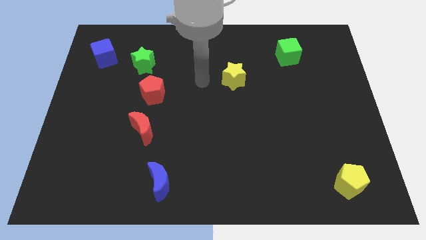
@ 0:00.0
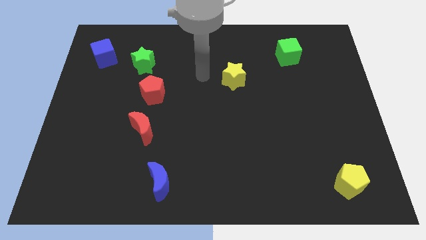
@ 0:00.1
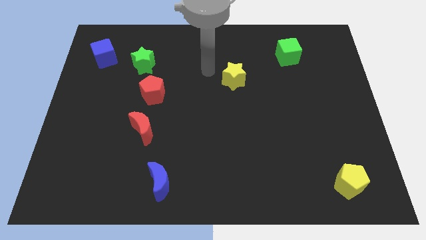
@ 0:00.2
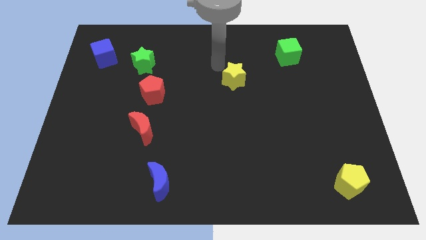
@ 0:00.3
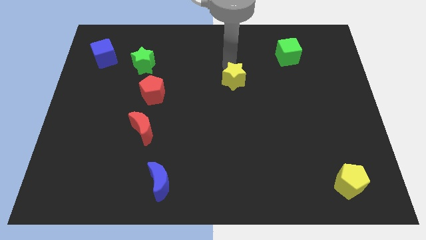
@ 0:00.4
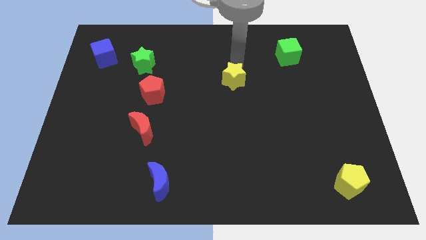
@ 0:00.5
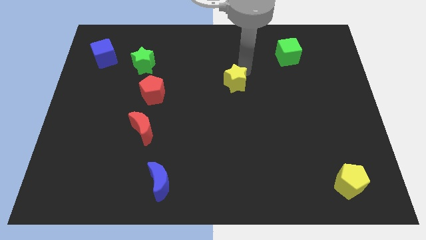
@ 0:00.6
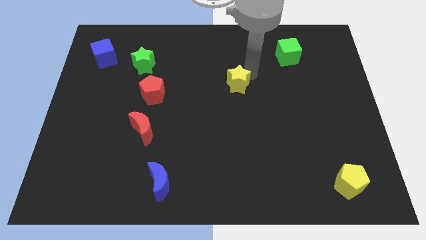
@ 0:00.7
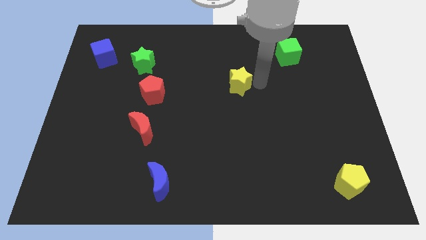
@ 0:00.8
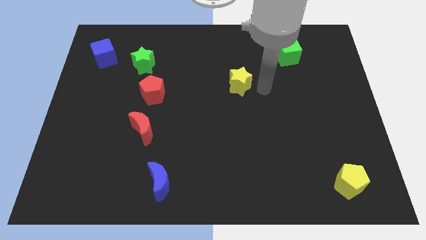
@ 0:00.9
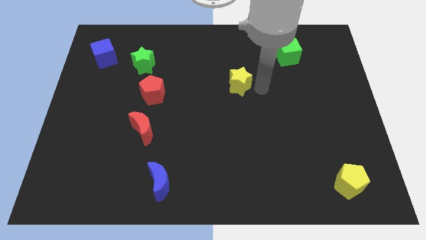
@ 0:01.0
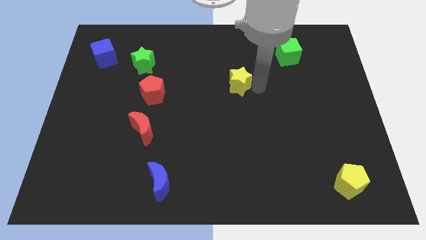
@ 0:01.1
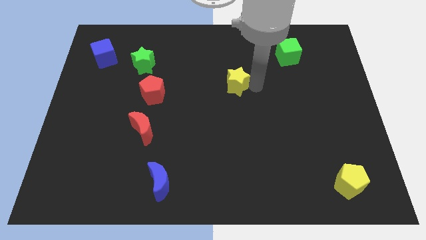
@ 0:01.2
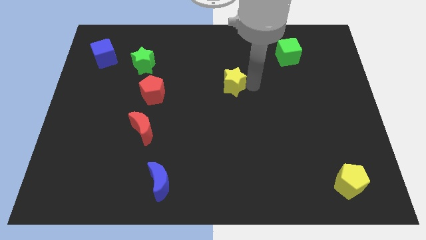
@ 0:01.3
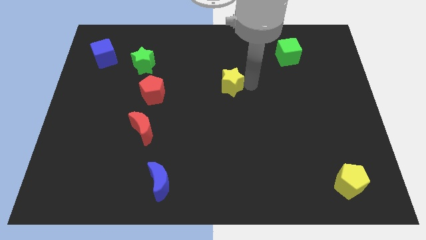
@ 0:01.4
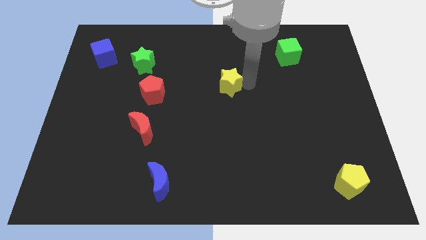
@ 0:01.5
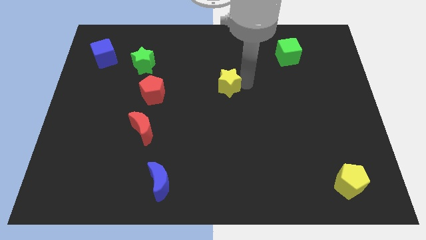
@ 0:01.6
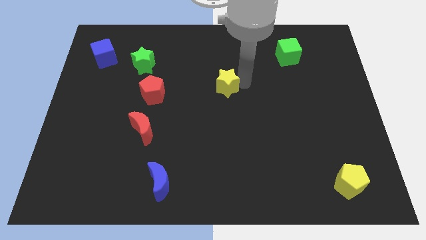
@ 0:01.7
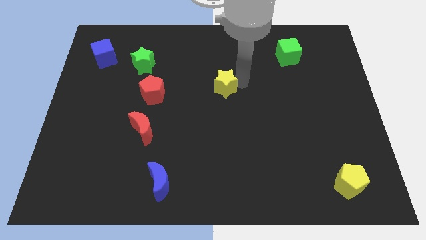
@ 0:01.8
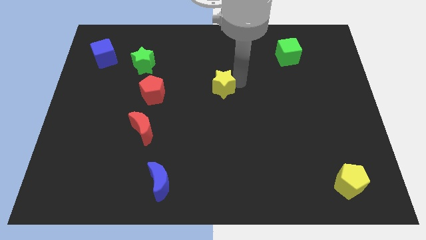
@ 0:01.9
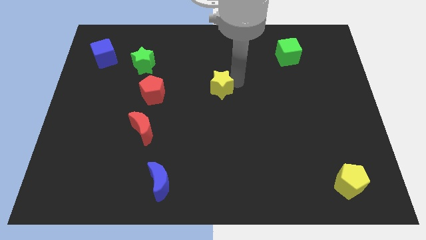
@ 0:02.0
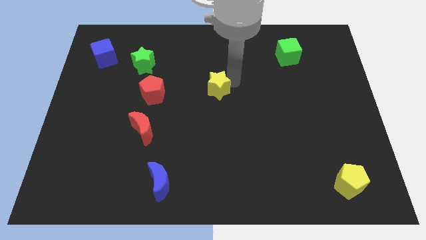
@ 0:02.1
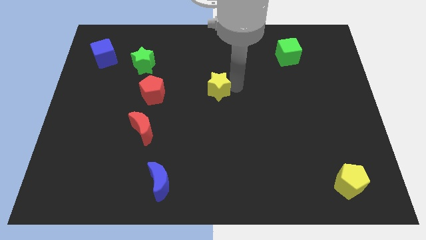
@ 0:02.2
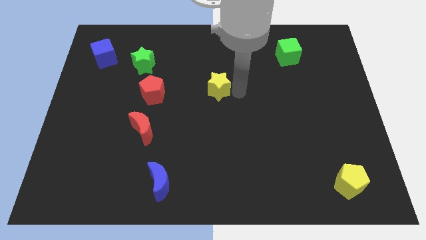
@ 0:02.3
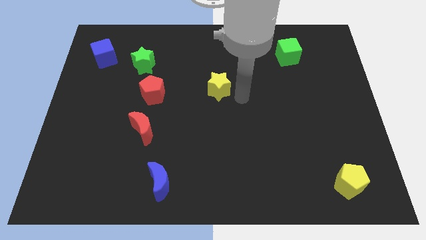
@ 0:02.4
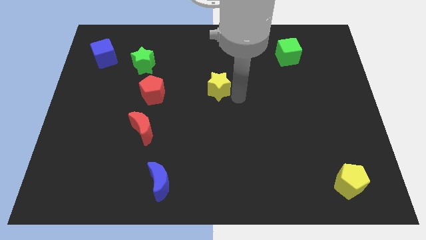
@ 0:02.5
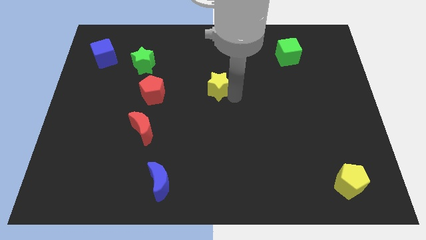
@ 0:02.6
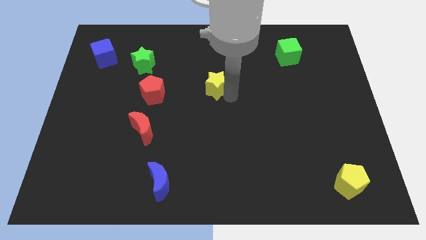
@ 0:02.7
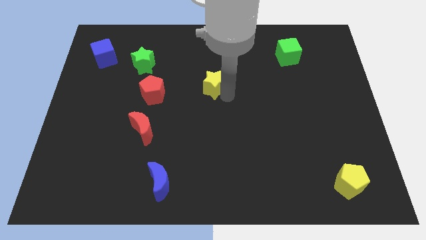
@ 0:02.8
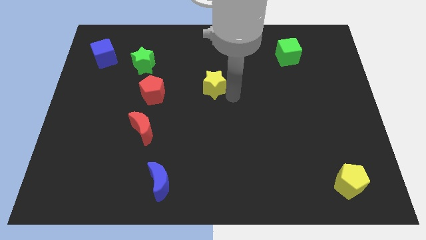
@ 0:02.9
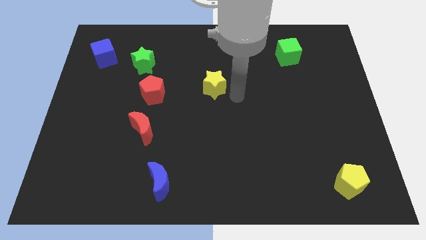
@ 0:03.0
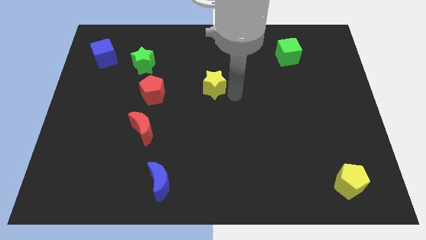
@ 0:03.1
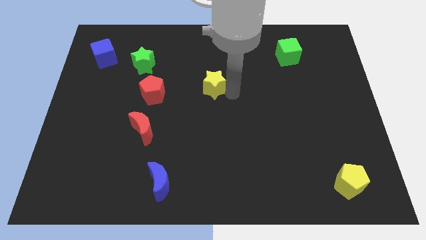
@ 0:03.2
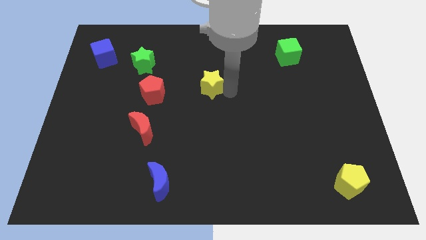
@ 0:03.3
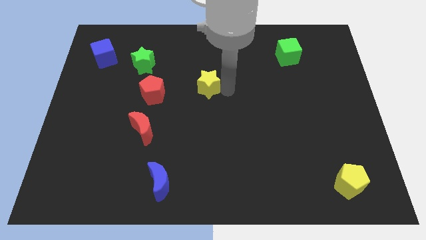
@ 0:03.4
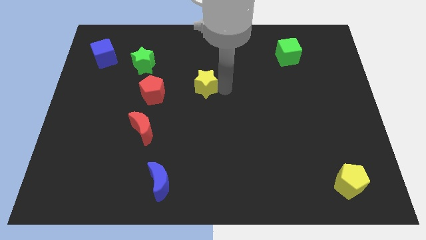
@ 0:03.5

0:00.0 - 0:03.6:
push the yellow star slightly left

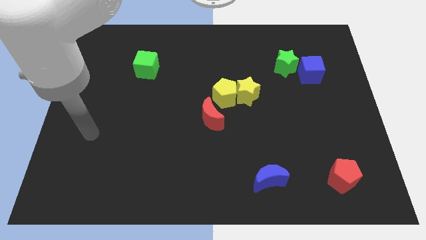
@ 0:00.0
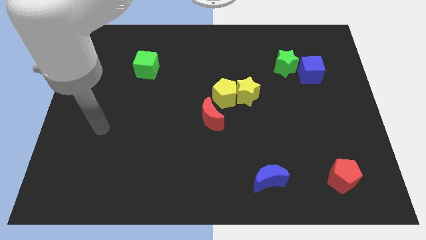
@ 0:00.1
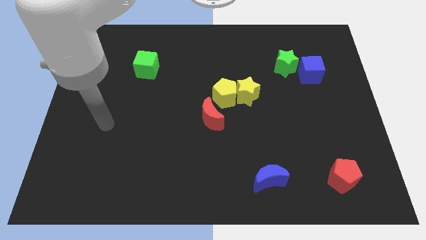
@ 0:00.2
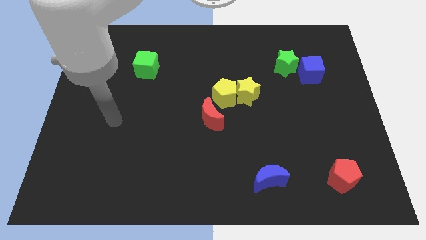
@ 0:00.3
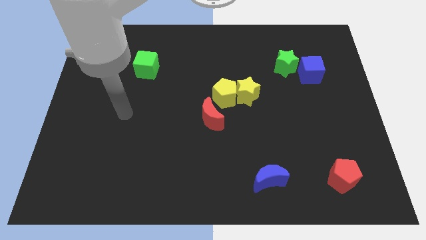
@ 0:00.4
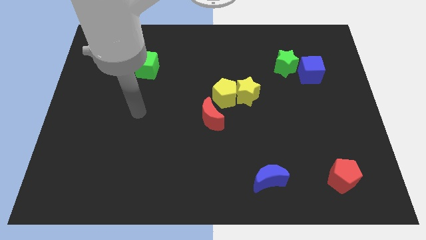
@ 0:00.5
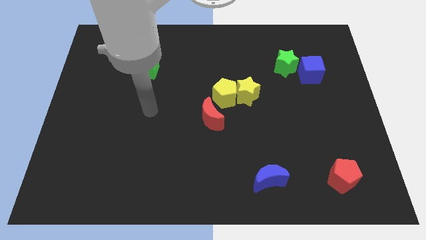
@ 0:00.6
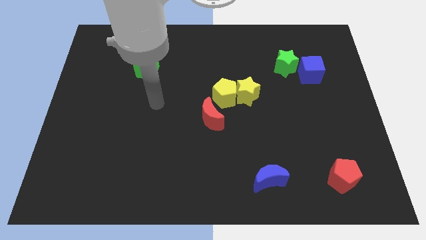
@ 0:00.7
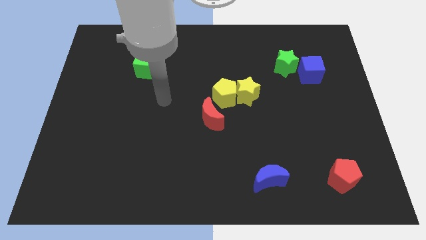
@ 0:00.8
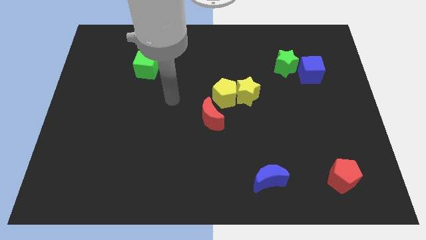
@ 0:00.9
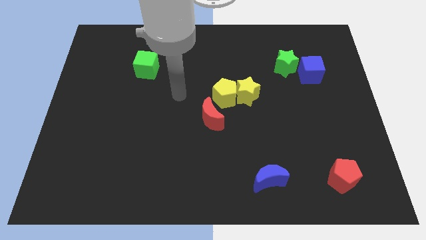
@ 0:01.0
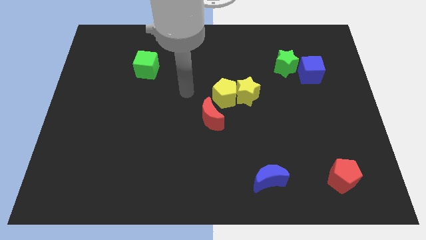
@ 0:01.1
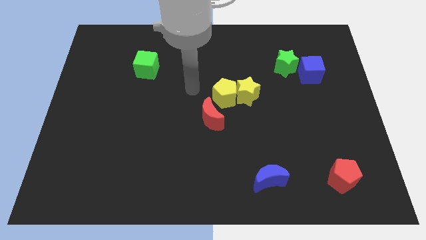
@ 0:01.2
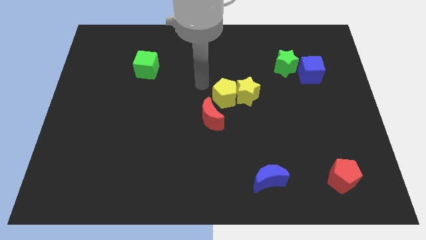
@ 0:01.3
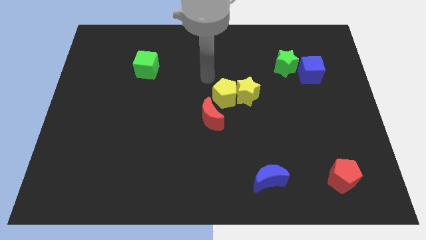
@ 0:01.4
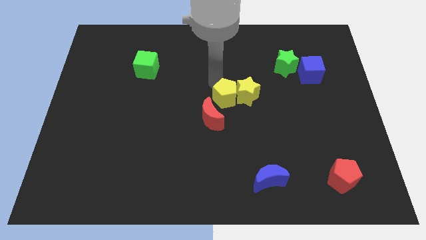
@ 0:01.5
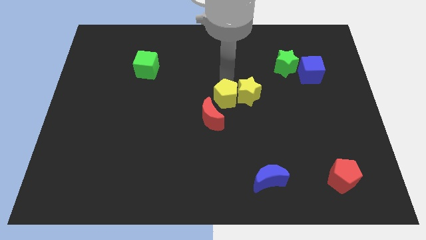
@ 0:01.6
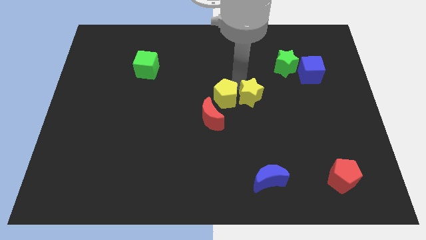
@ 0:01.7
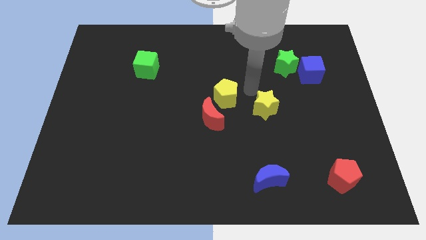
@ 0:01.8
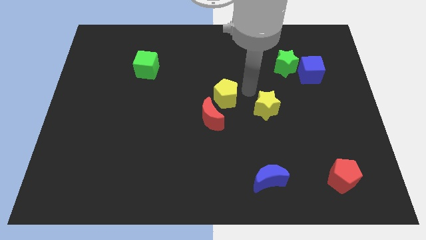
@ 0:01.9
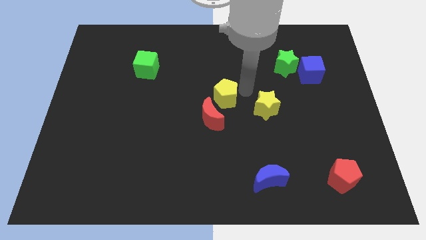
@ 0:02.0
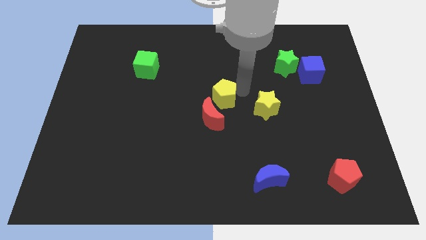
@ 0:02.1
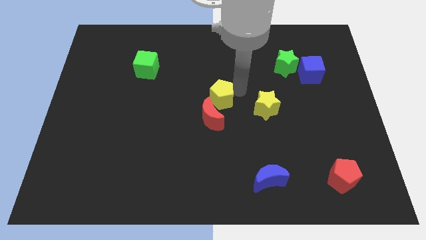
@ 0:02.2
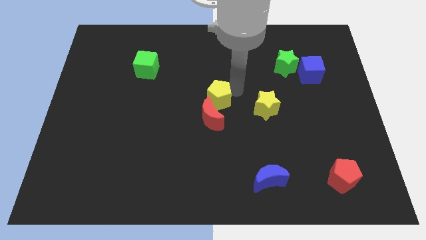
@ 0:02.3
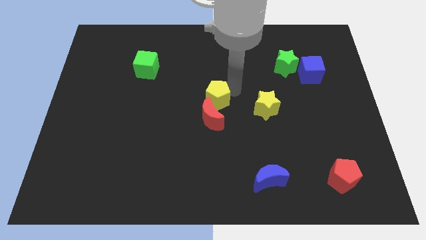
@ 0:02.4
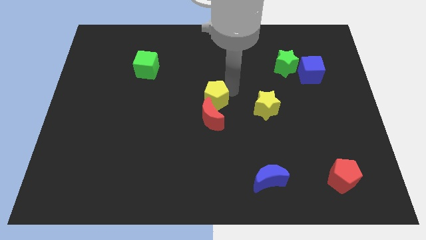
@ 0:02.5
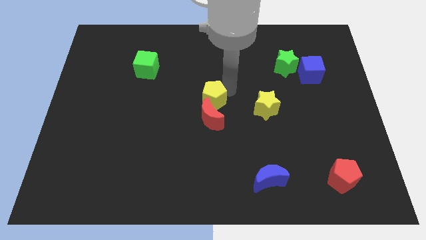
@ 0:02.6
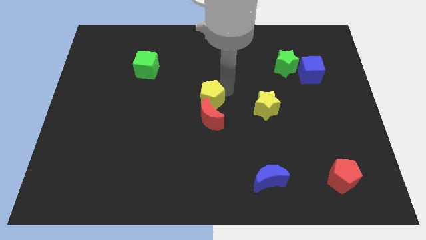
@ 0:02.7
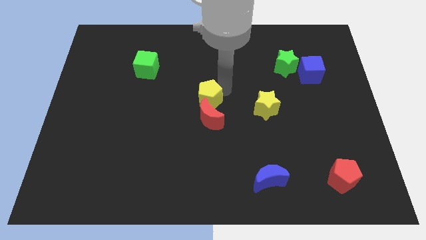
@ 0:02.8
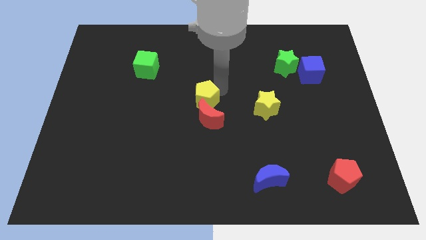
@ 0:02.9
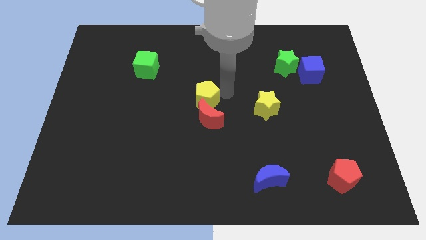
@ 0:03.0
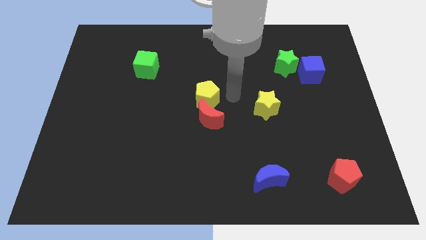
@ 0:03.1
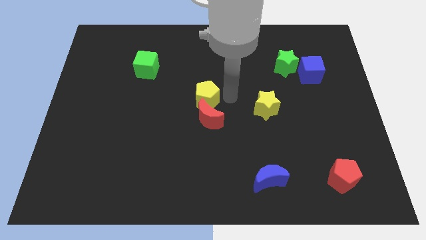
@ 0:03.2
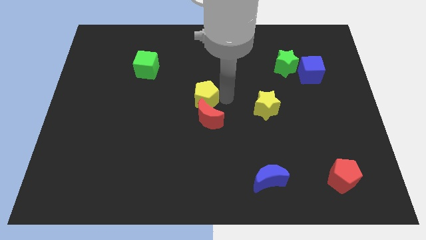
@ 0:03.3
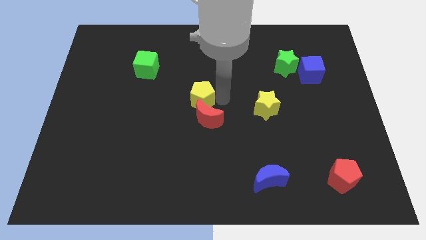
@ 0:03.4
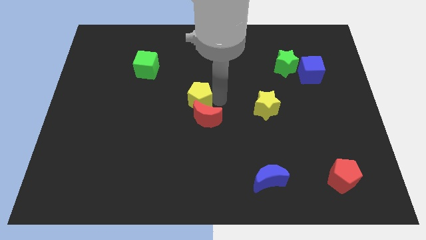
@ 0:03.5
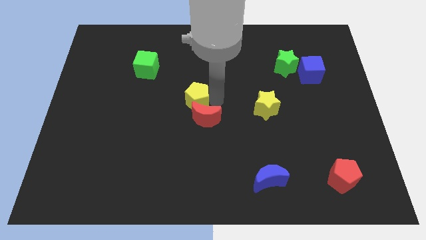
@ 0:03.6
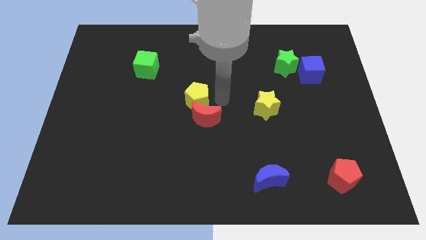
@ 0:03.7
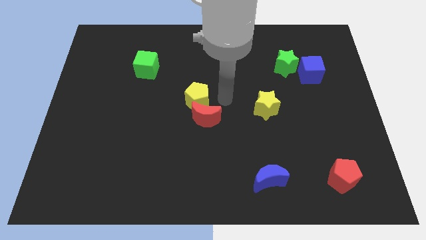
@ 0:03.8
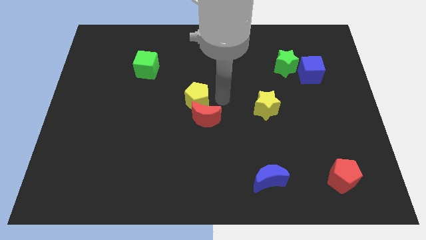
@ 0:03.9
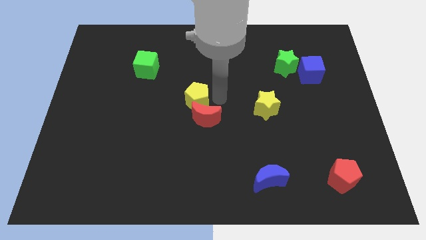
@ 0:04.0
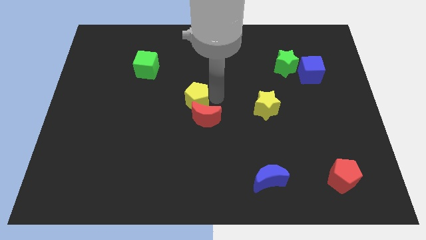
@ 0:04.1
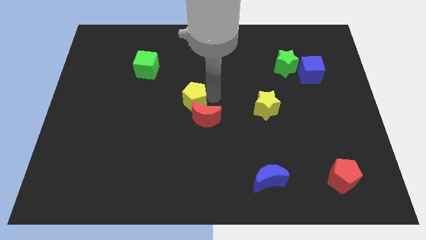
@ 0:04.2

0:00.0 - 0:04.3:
slide the yellow pentagon slightly to the left
